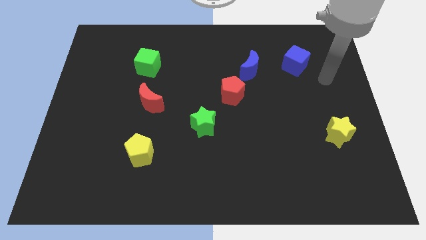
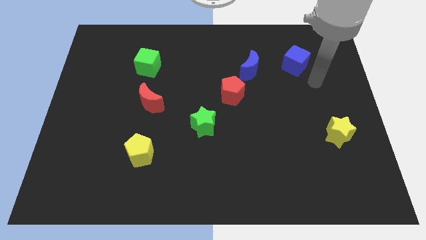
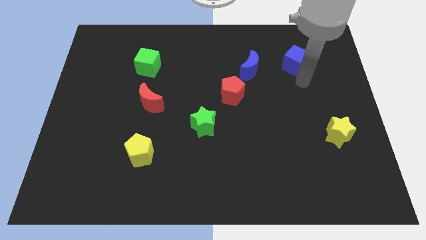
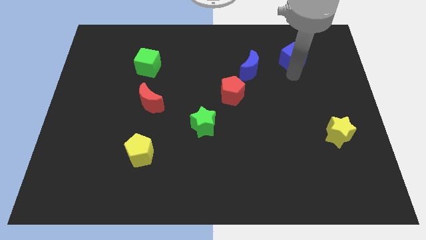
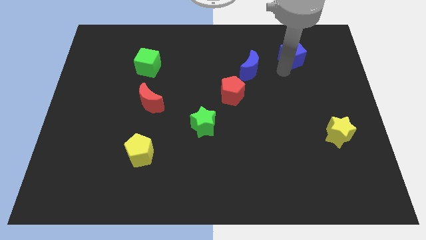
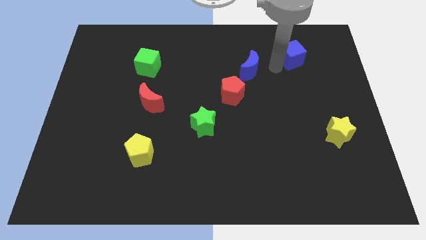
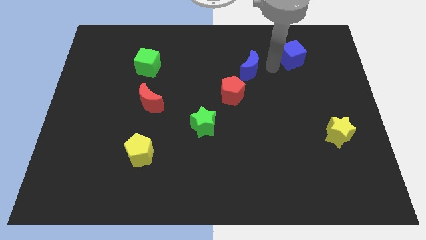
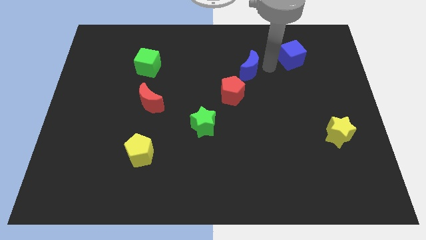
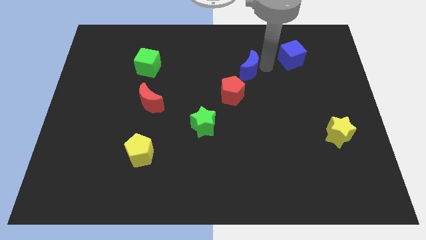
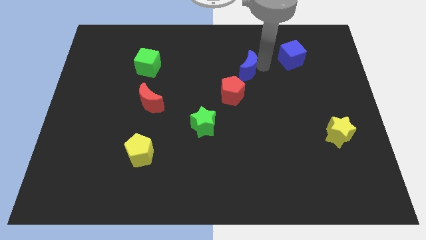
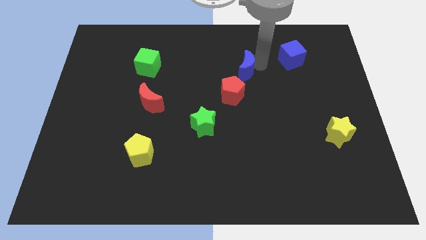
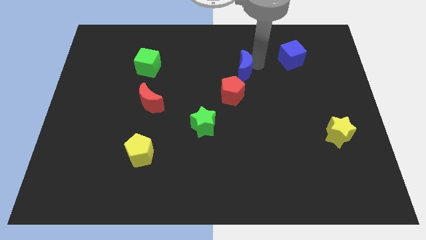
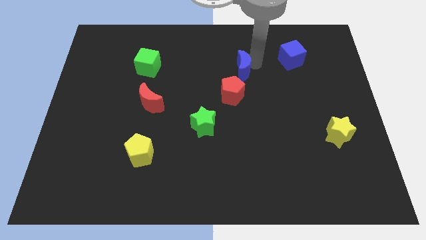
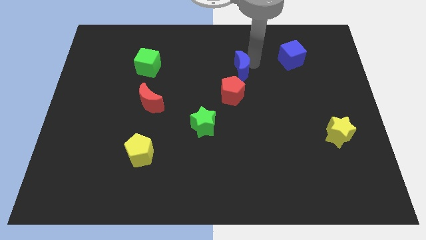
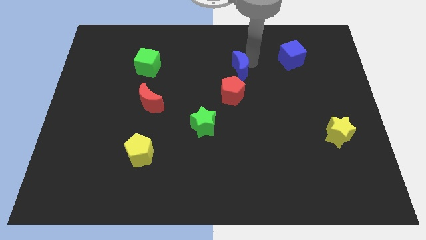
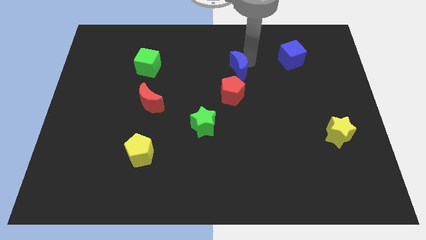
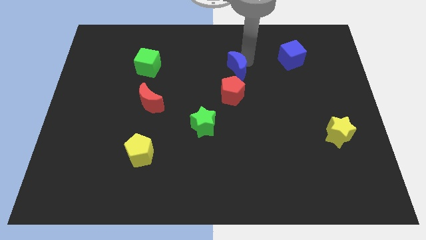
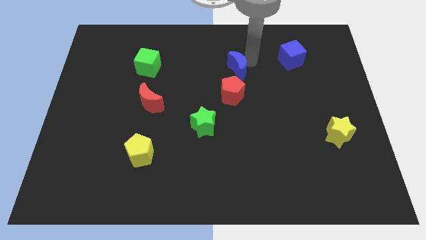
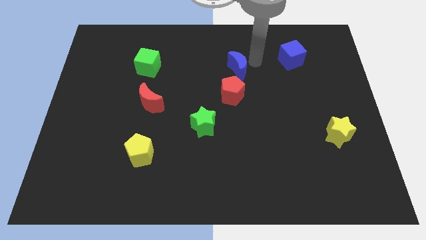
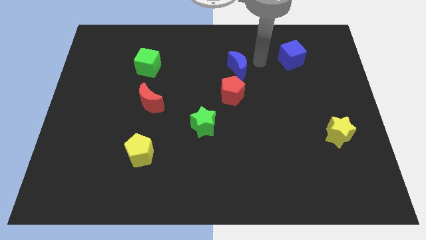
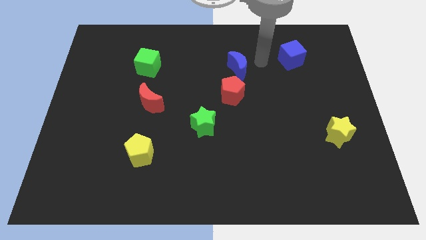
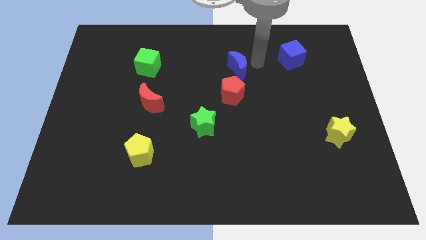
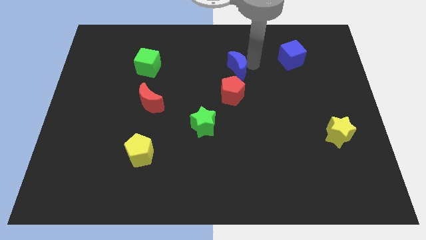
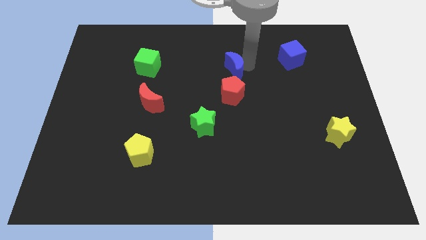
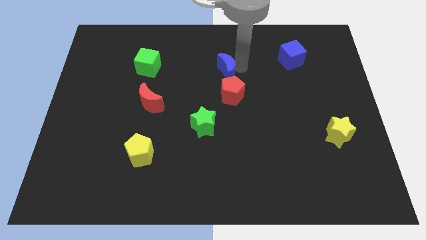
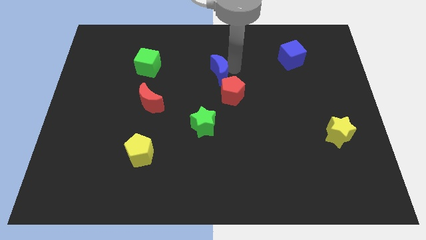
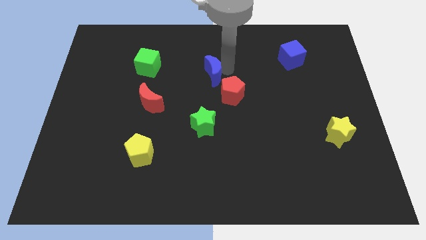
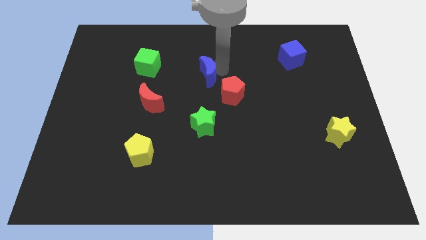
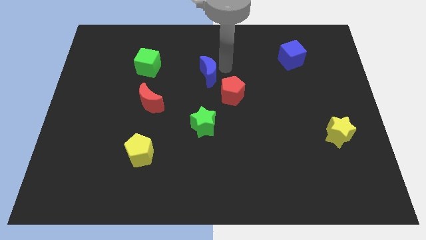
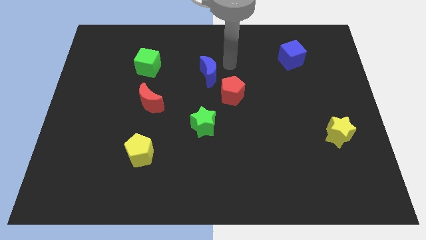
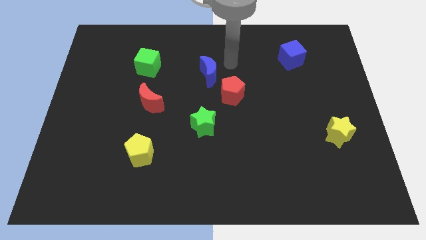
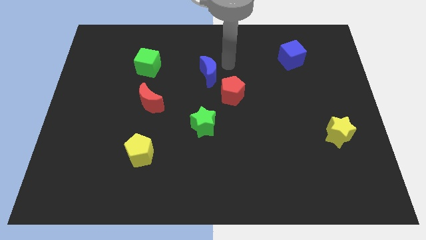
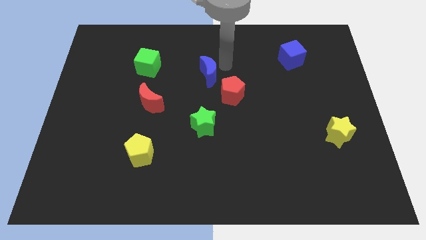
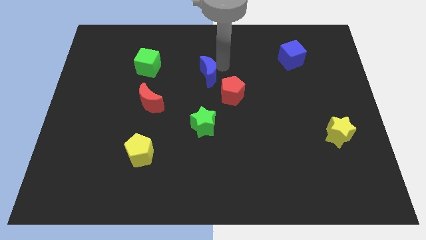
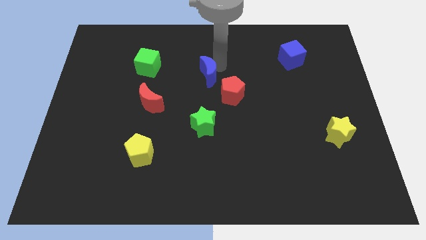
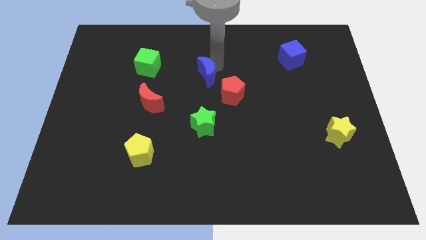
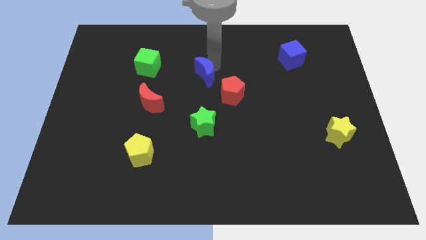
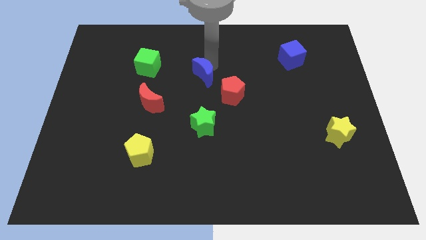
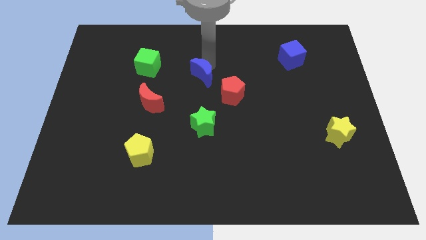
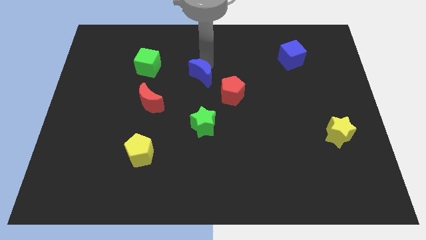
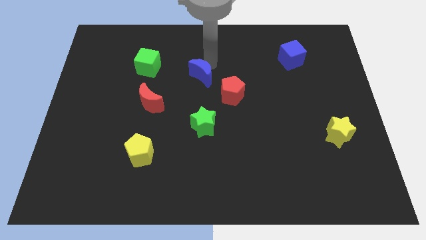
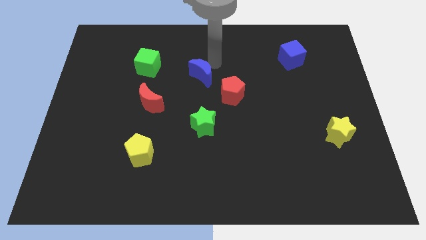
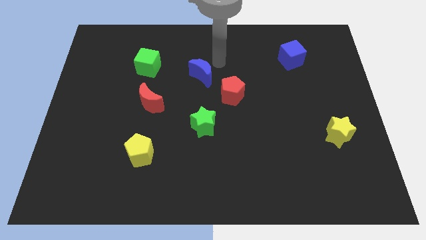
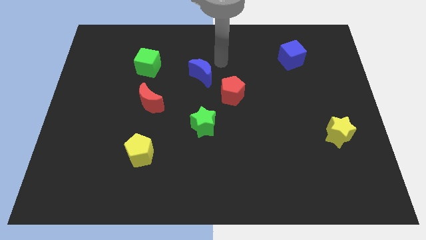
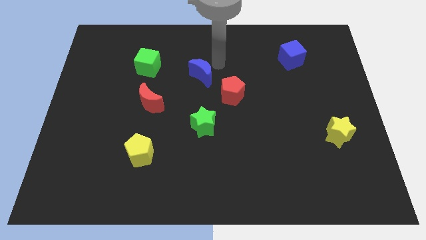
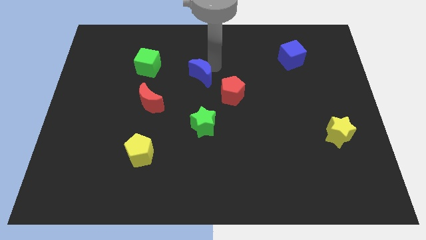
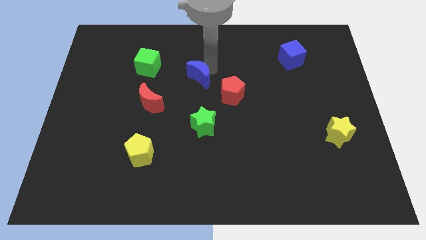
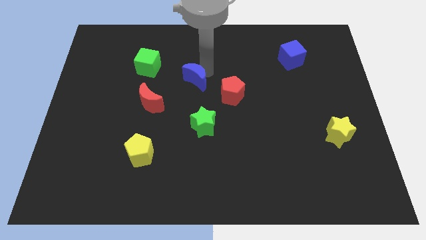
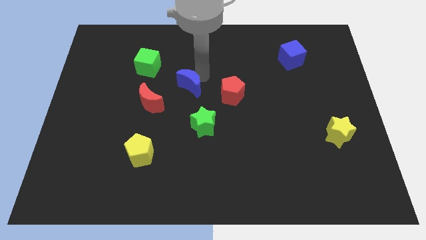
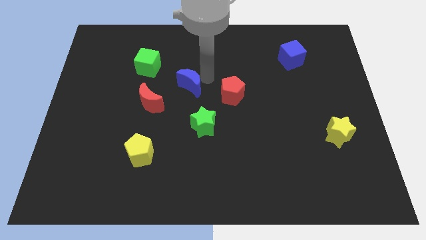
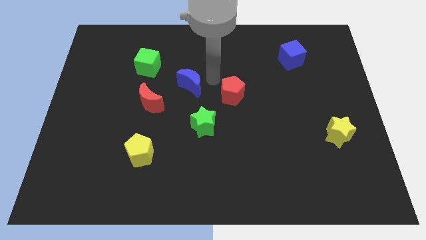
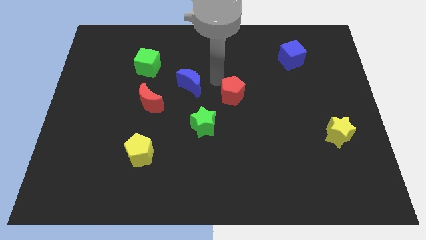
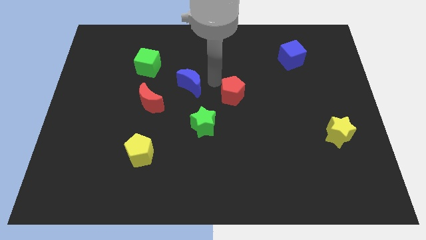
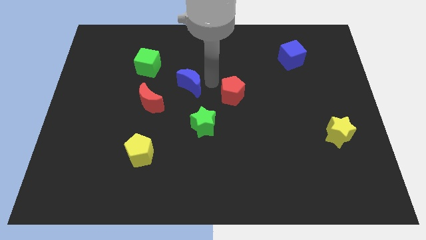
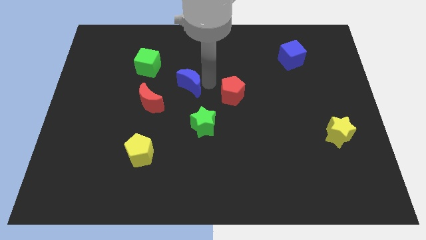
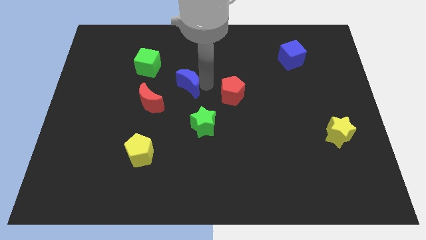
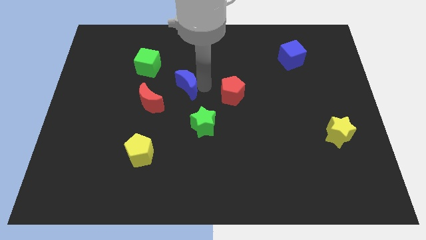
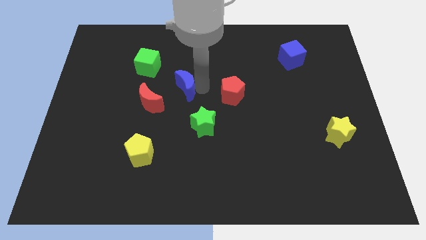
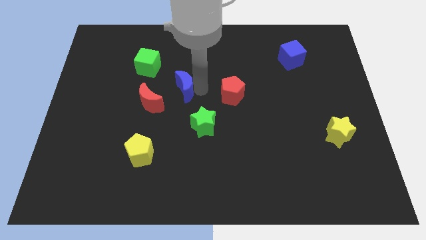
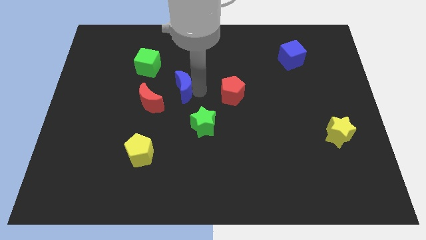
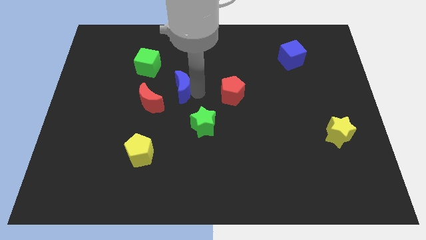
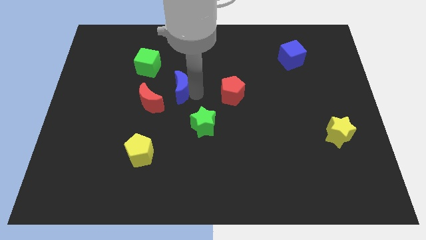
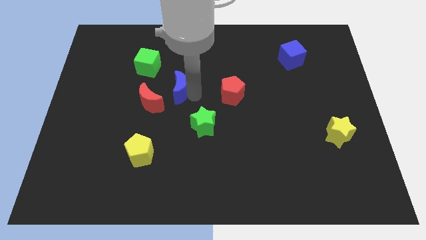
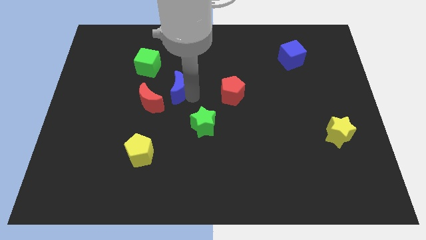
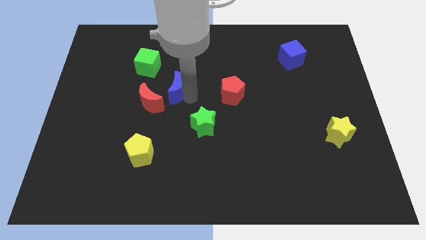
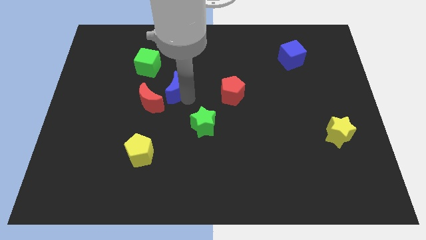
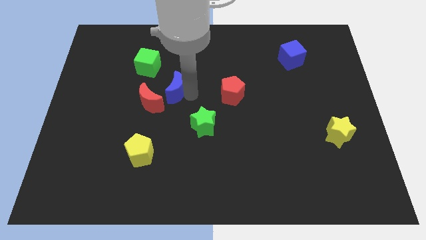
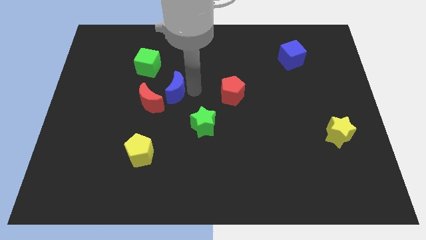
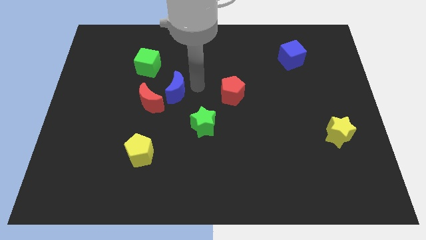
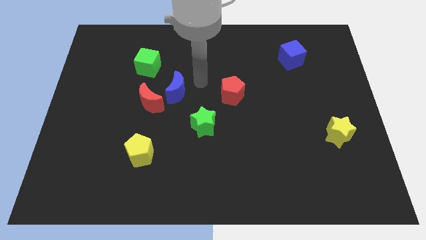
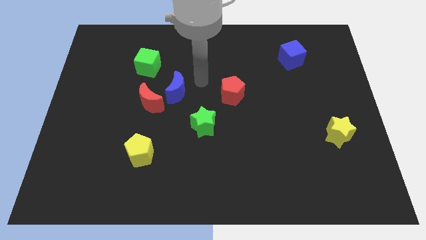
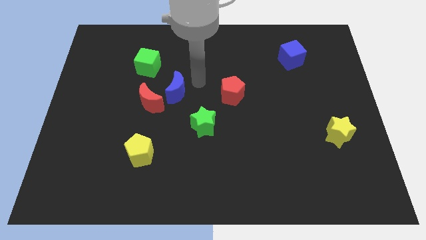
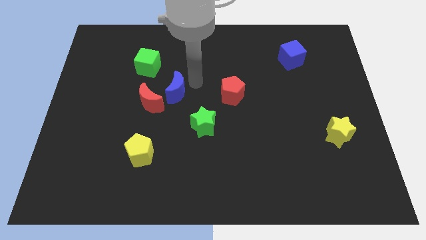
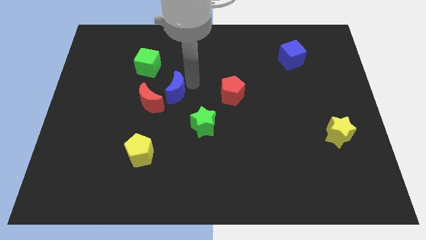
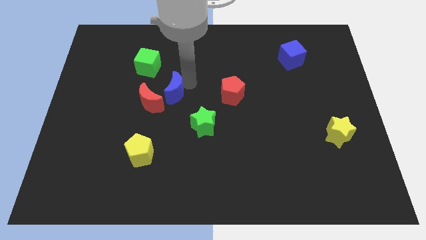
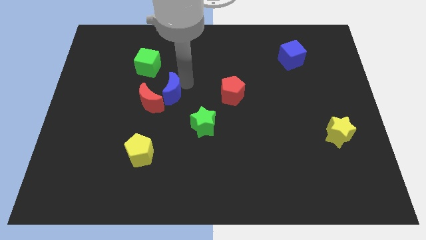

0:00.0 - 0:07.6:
push the blue moon towards the red moon
